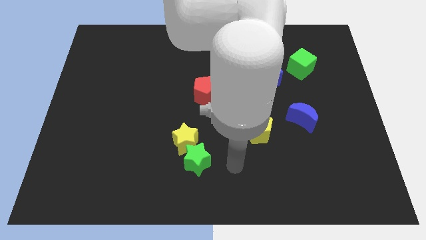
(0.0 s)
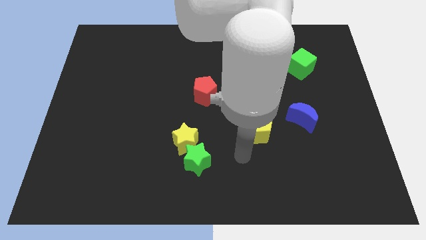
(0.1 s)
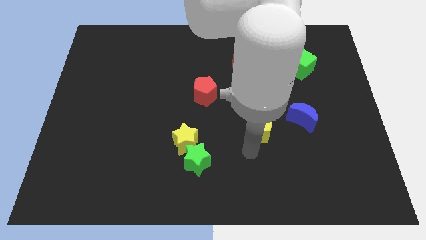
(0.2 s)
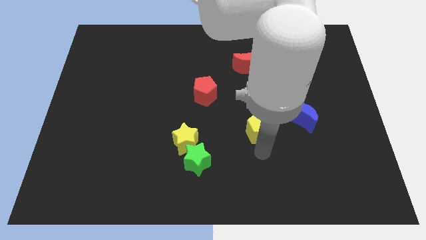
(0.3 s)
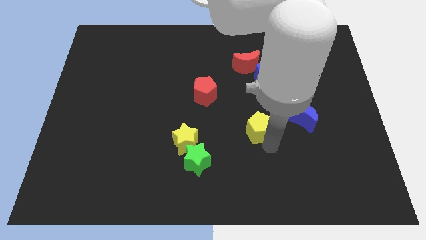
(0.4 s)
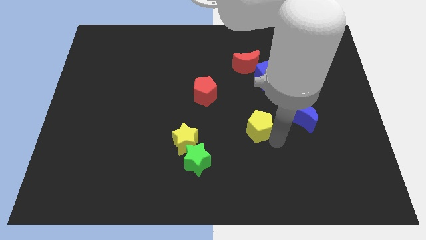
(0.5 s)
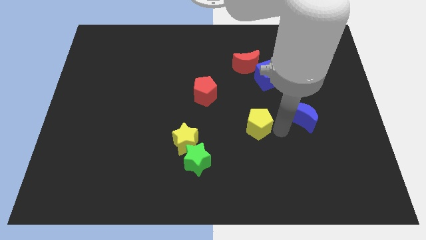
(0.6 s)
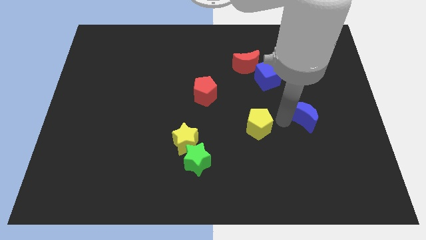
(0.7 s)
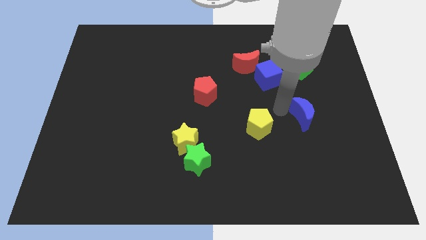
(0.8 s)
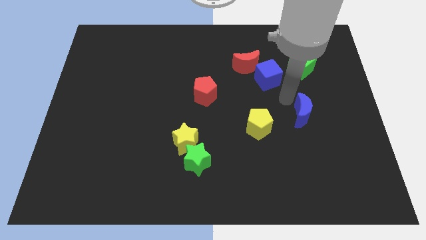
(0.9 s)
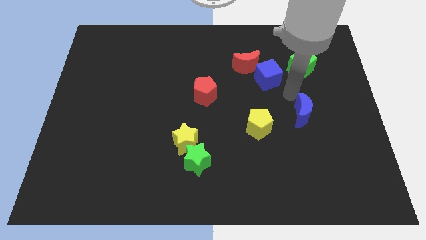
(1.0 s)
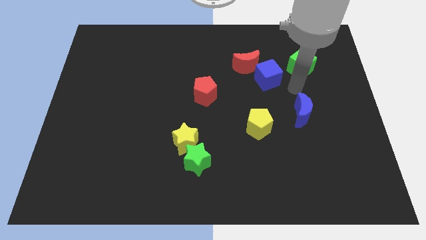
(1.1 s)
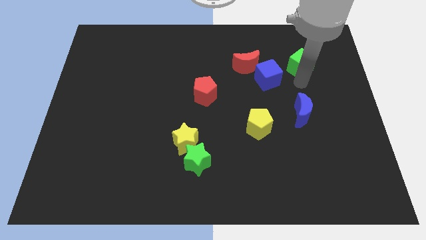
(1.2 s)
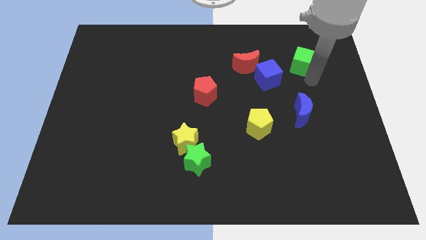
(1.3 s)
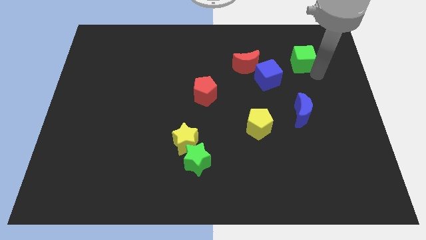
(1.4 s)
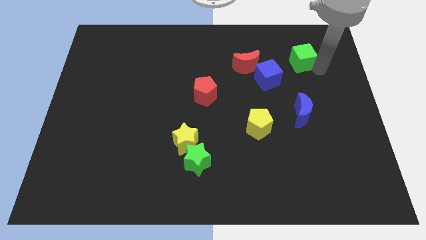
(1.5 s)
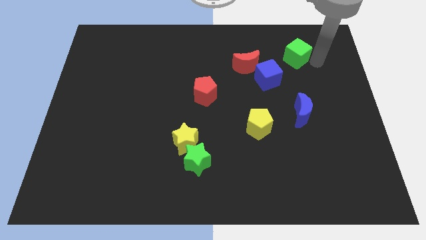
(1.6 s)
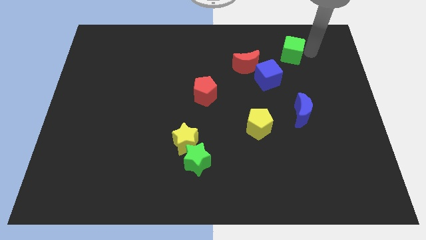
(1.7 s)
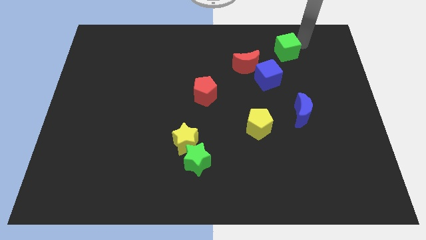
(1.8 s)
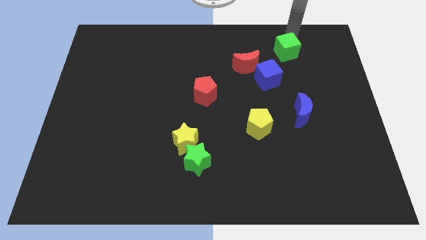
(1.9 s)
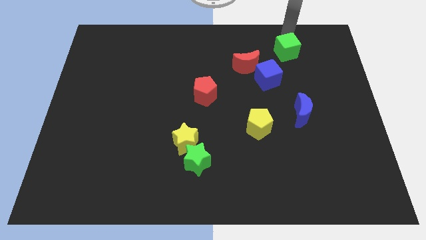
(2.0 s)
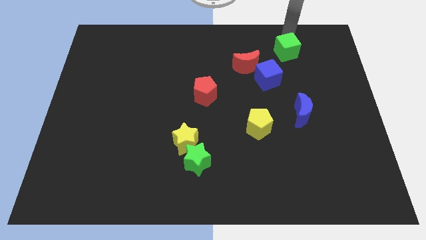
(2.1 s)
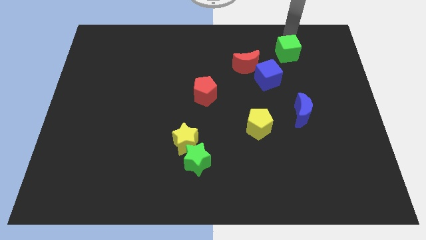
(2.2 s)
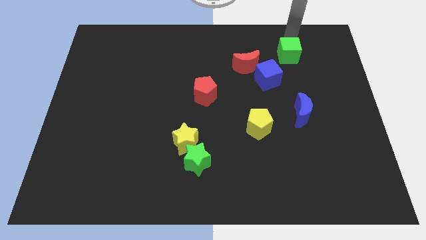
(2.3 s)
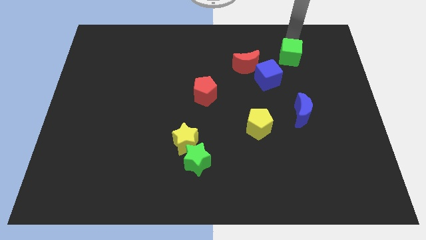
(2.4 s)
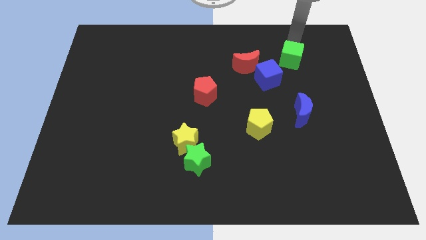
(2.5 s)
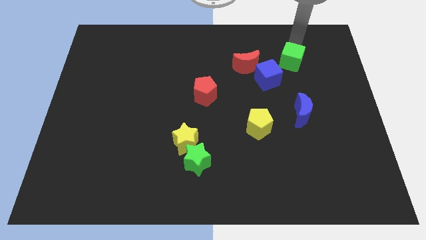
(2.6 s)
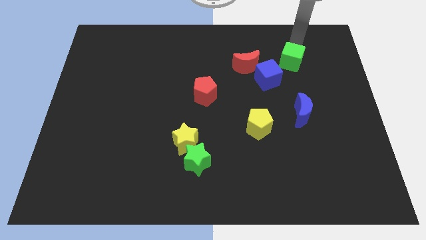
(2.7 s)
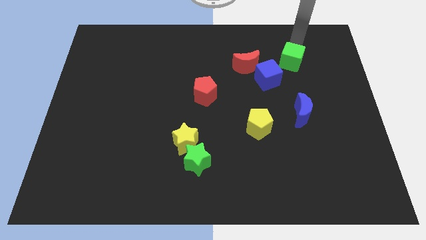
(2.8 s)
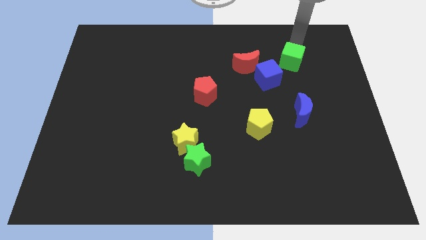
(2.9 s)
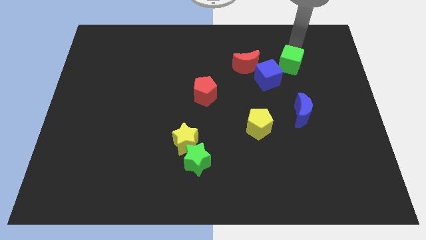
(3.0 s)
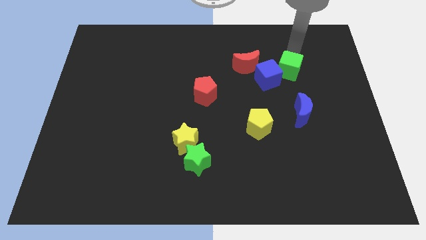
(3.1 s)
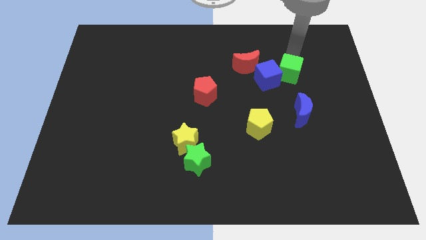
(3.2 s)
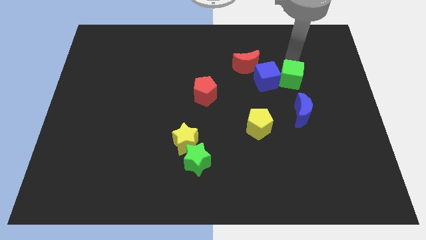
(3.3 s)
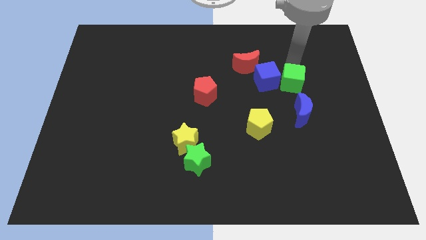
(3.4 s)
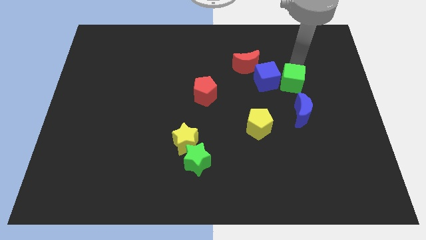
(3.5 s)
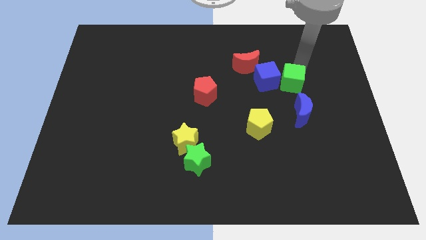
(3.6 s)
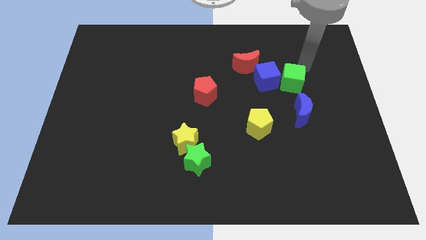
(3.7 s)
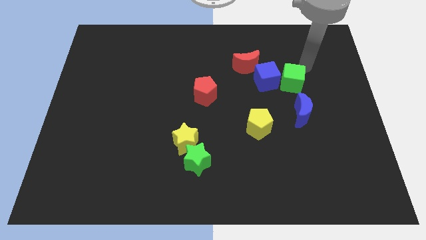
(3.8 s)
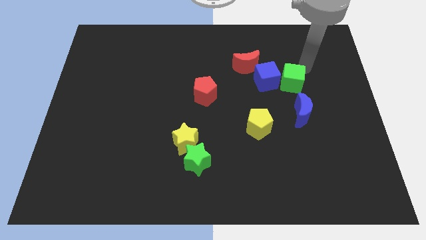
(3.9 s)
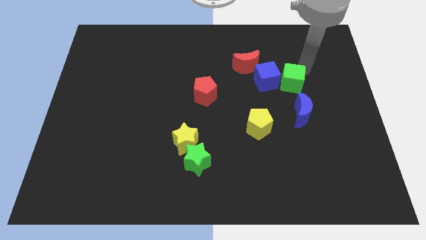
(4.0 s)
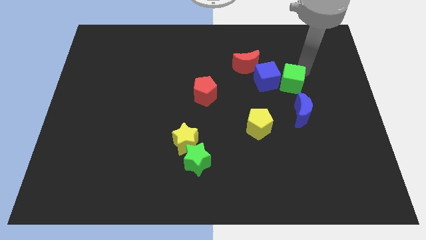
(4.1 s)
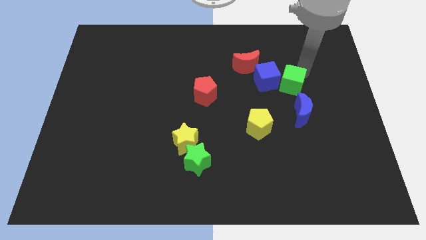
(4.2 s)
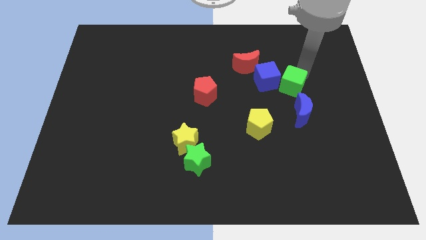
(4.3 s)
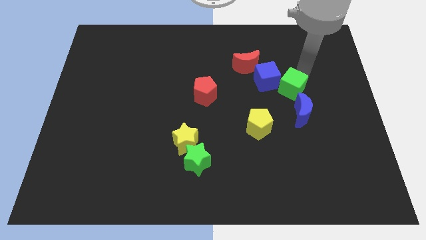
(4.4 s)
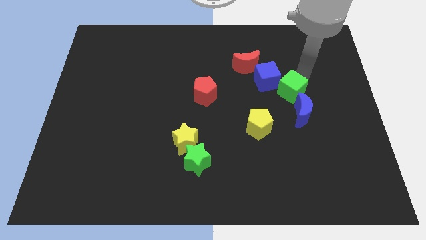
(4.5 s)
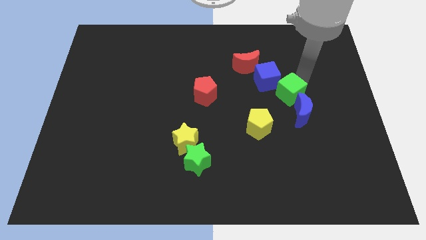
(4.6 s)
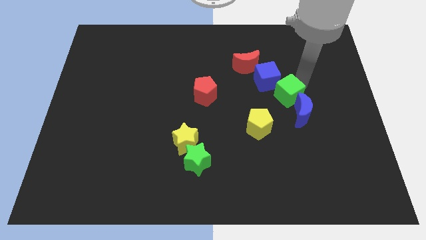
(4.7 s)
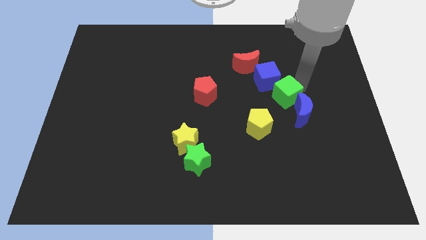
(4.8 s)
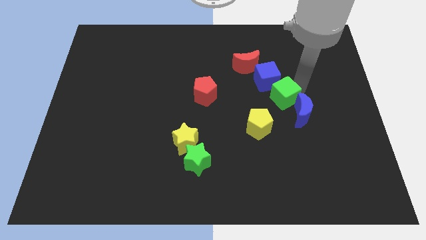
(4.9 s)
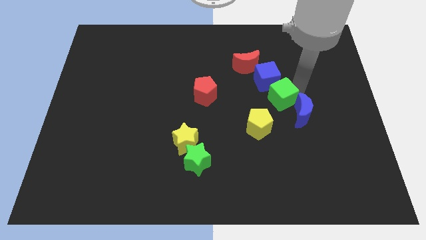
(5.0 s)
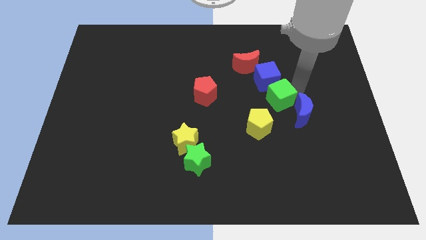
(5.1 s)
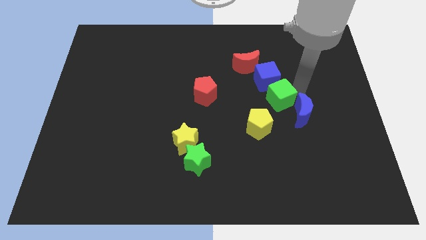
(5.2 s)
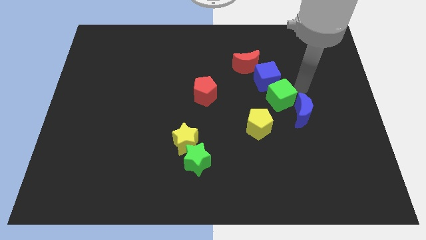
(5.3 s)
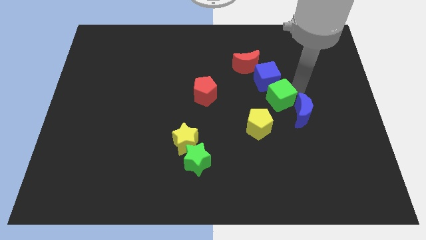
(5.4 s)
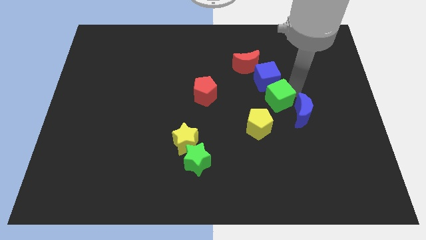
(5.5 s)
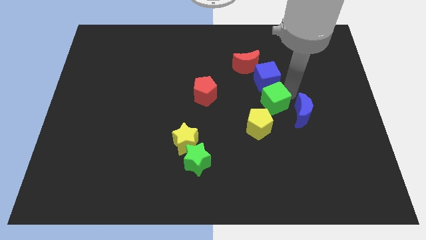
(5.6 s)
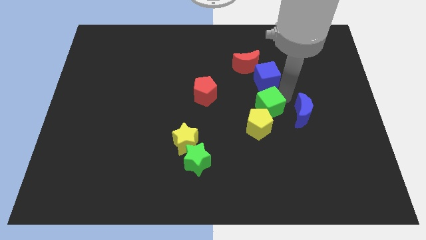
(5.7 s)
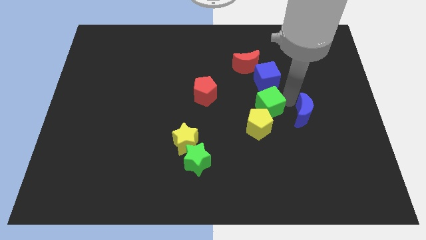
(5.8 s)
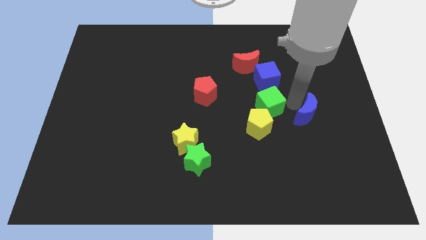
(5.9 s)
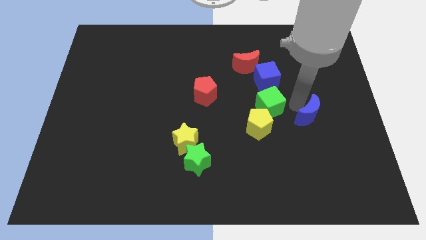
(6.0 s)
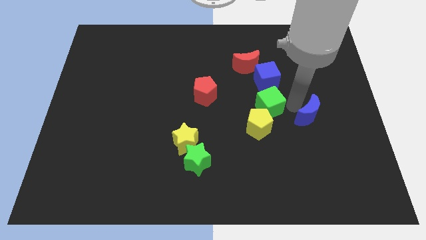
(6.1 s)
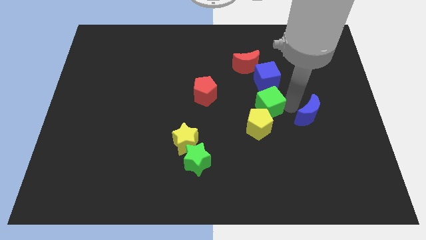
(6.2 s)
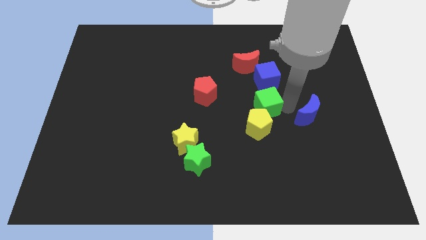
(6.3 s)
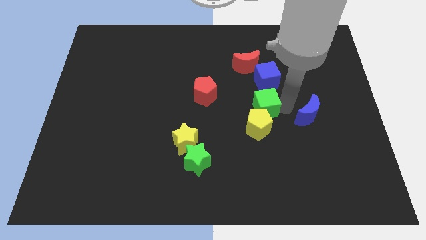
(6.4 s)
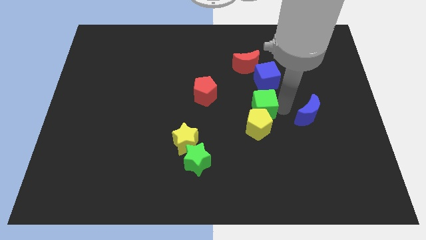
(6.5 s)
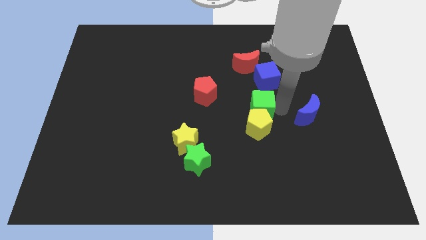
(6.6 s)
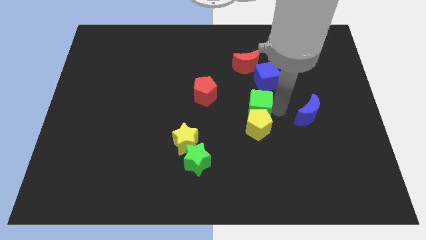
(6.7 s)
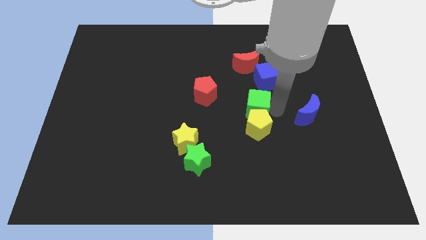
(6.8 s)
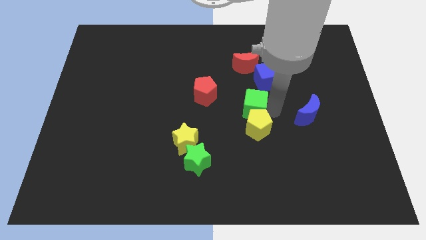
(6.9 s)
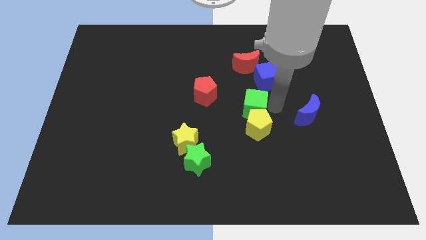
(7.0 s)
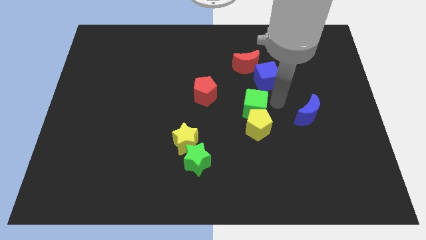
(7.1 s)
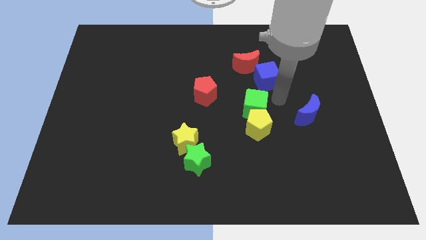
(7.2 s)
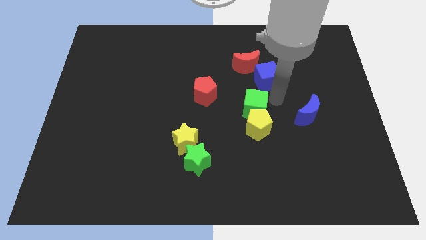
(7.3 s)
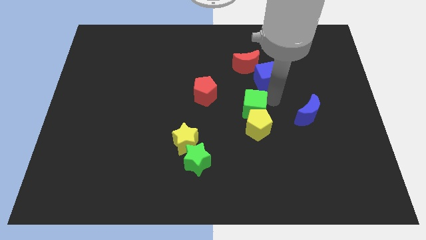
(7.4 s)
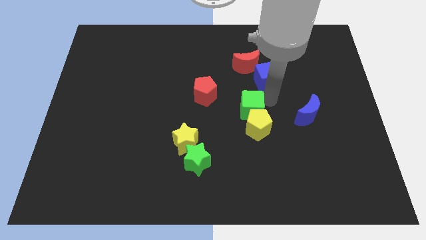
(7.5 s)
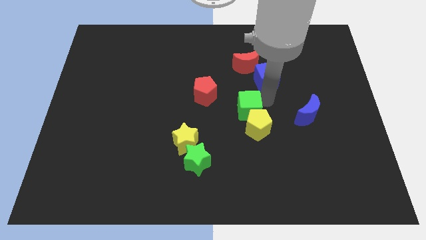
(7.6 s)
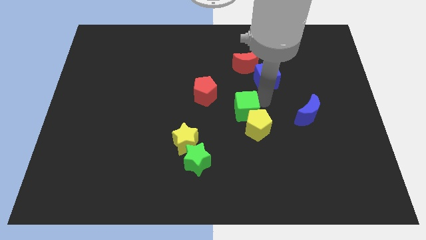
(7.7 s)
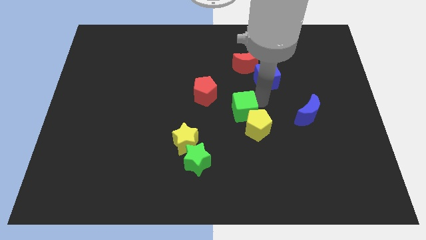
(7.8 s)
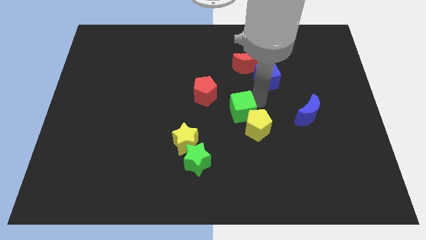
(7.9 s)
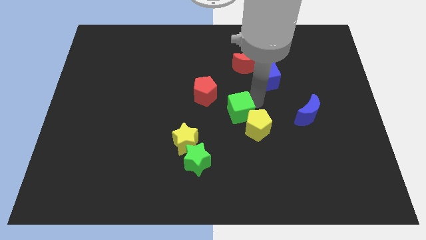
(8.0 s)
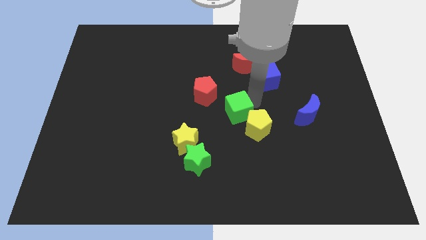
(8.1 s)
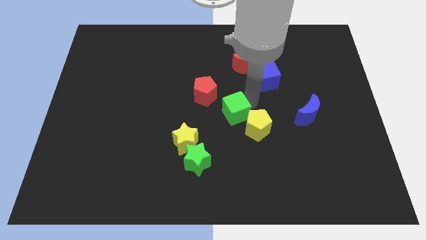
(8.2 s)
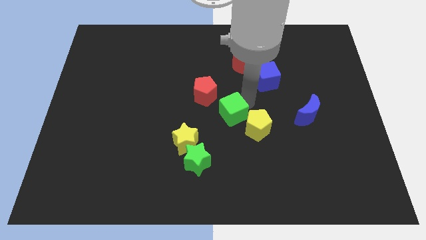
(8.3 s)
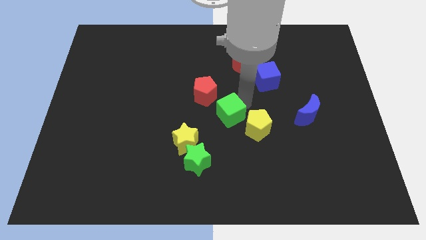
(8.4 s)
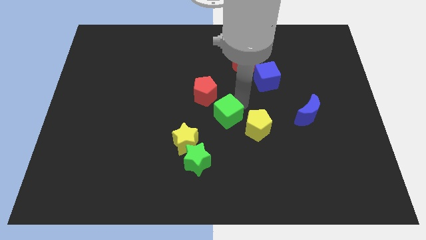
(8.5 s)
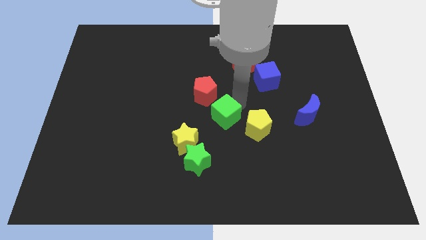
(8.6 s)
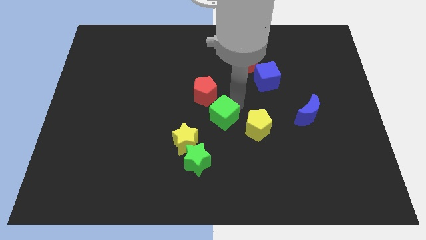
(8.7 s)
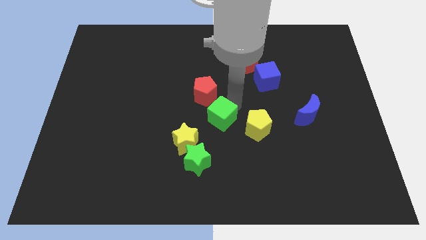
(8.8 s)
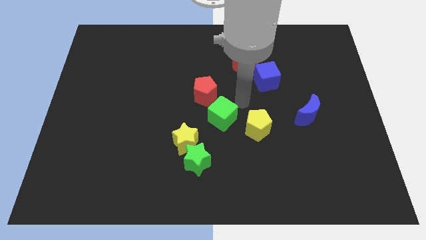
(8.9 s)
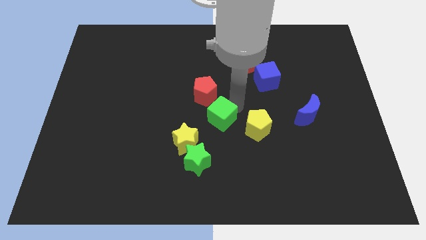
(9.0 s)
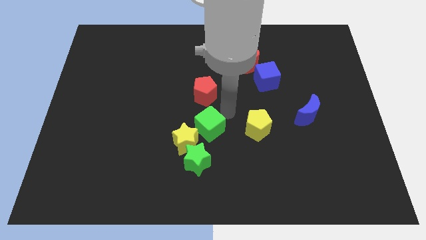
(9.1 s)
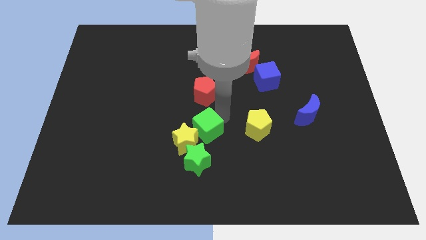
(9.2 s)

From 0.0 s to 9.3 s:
push the green cube towards the yellow star
